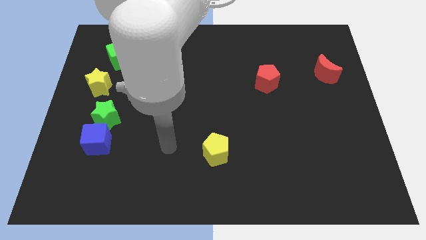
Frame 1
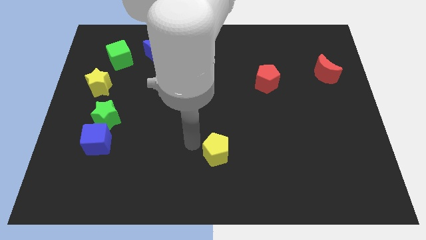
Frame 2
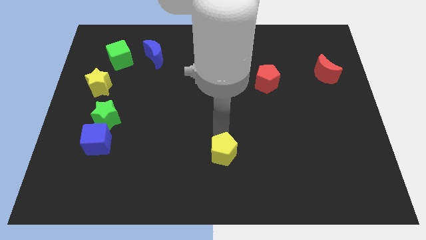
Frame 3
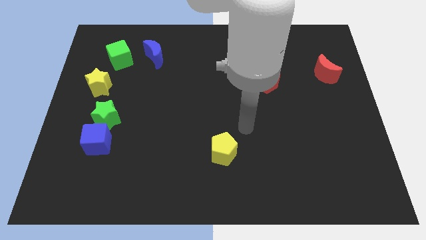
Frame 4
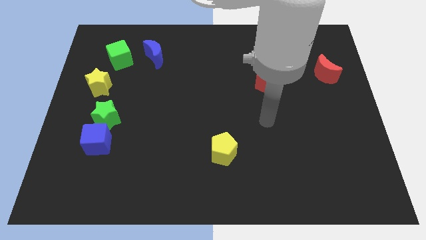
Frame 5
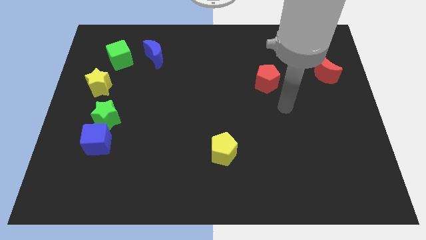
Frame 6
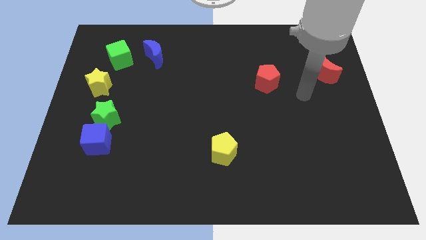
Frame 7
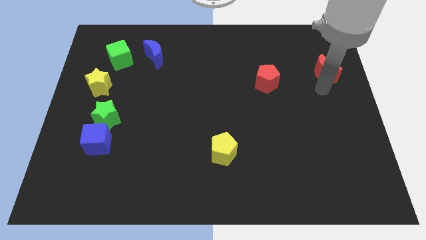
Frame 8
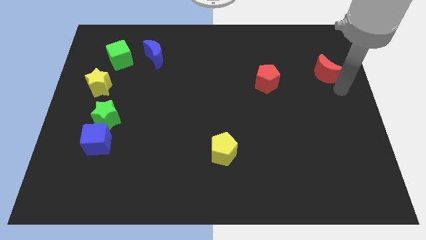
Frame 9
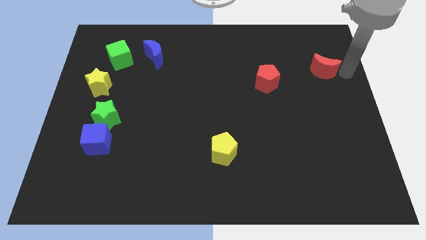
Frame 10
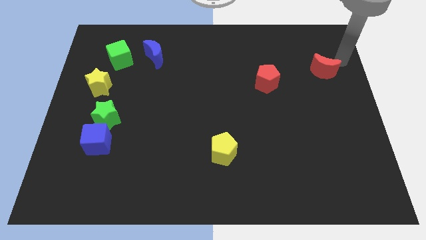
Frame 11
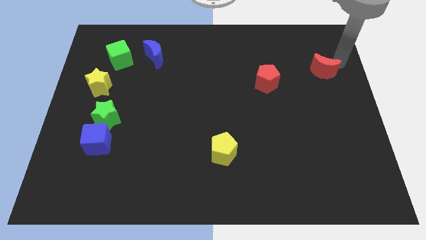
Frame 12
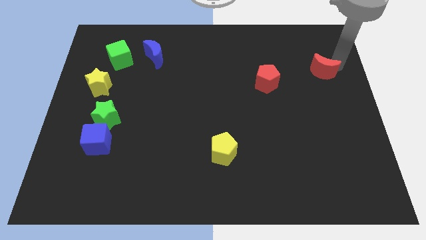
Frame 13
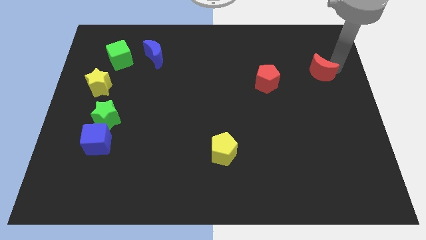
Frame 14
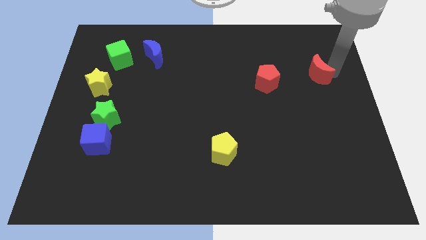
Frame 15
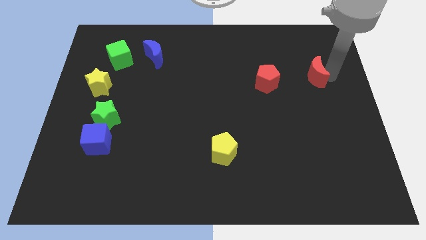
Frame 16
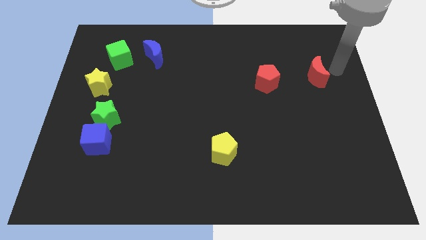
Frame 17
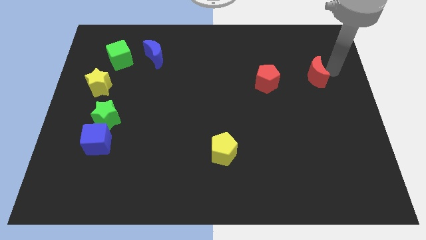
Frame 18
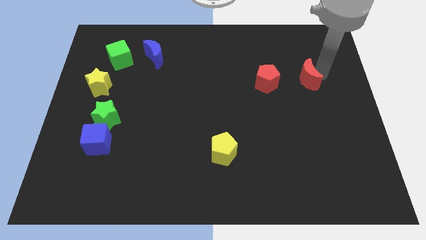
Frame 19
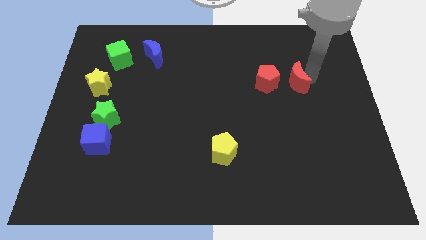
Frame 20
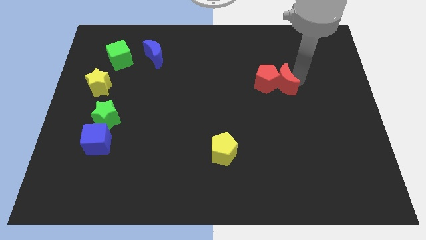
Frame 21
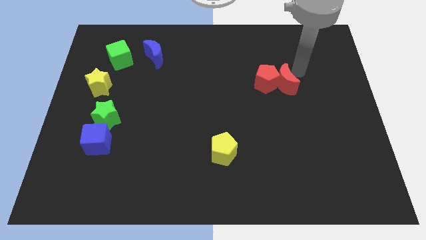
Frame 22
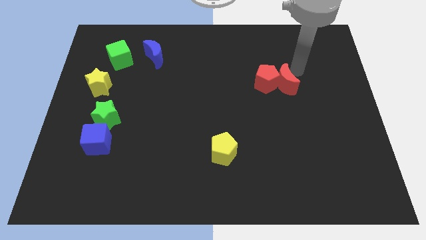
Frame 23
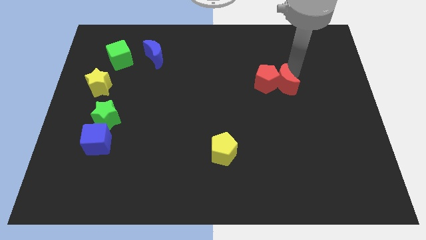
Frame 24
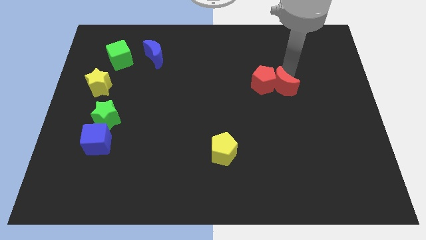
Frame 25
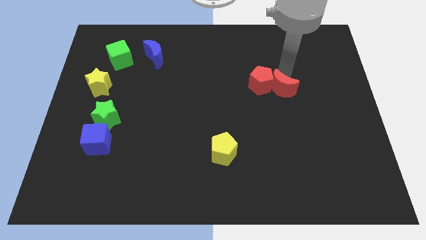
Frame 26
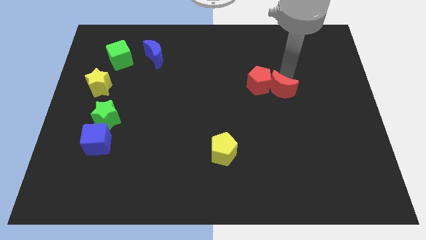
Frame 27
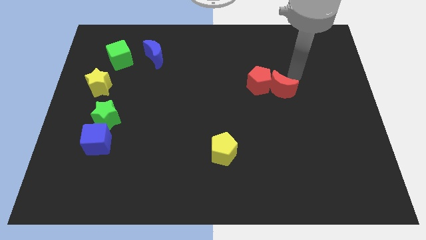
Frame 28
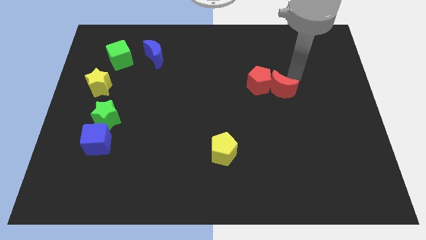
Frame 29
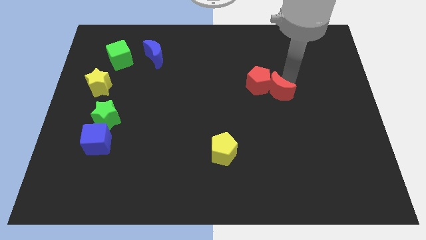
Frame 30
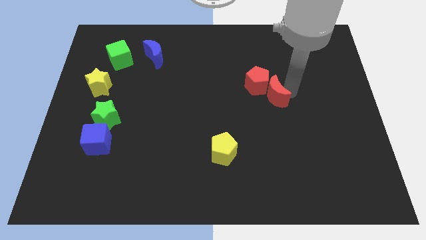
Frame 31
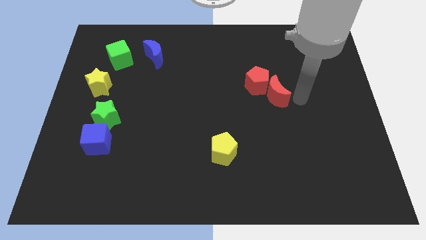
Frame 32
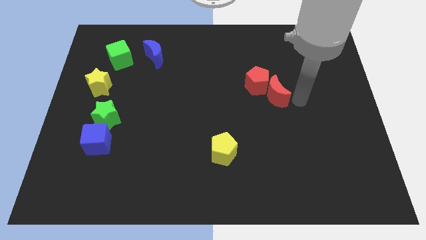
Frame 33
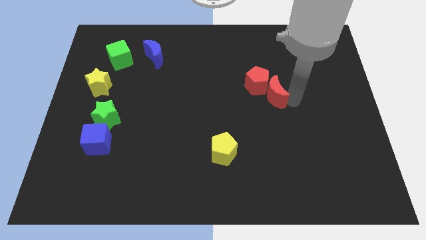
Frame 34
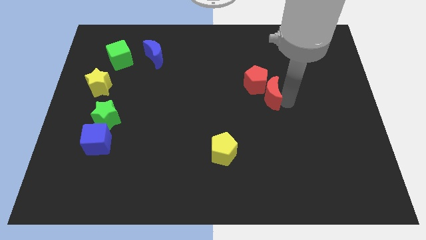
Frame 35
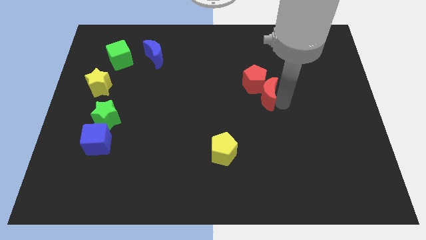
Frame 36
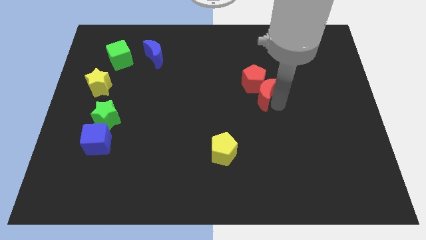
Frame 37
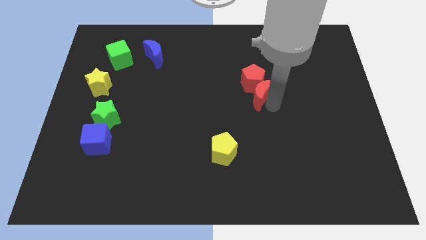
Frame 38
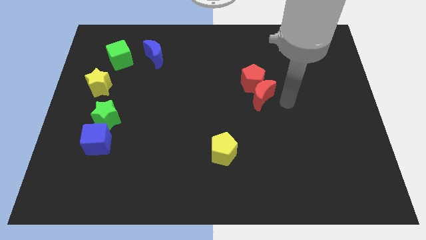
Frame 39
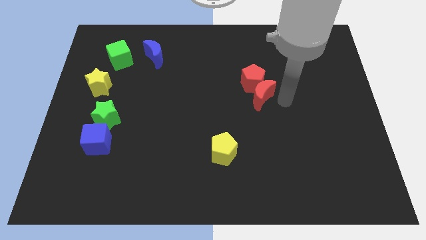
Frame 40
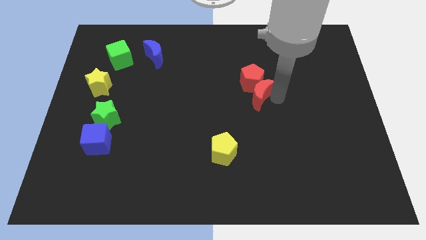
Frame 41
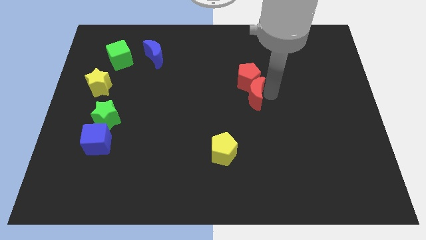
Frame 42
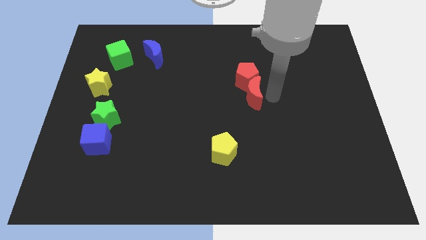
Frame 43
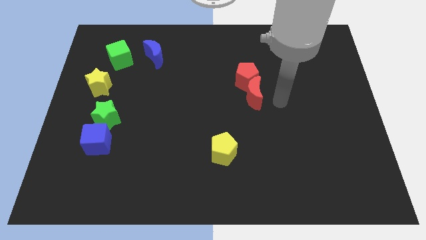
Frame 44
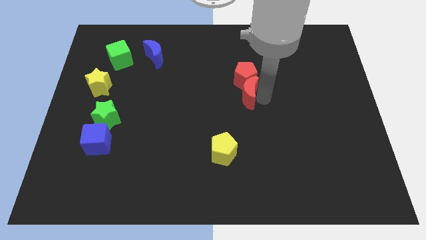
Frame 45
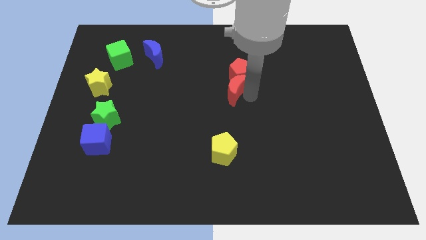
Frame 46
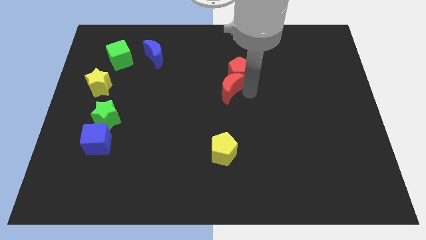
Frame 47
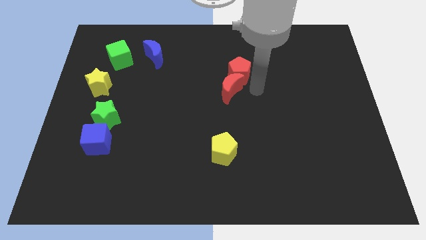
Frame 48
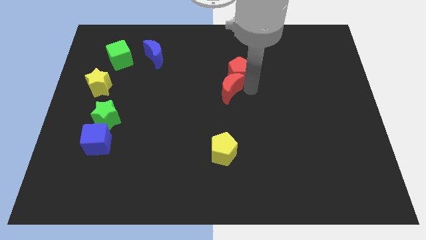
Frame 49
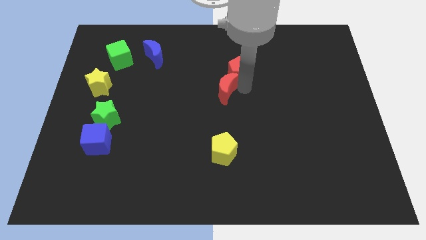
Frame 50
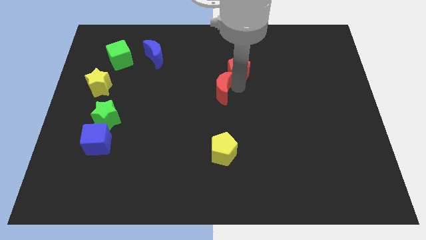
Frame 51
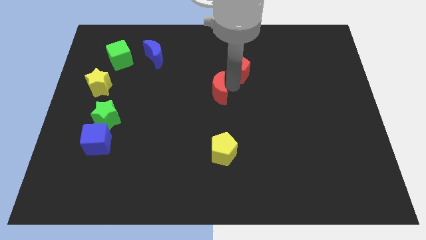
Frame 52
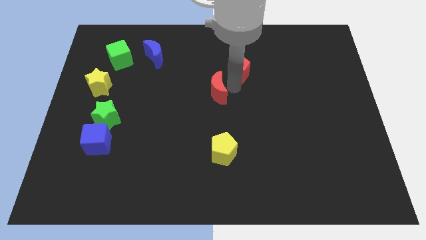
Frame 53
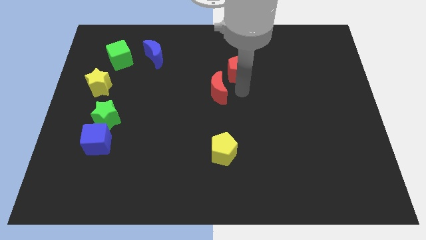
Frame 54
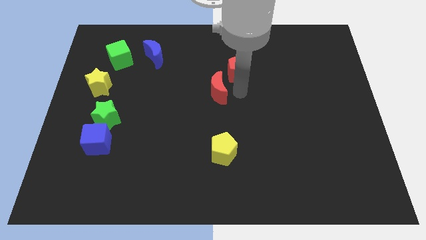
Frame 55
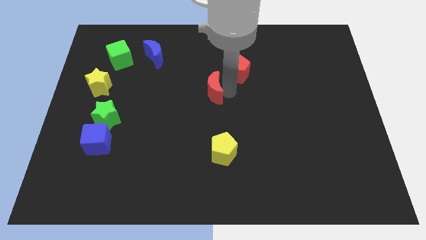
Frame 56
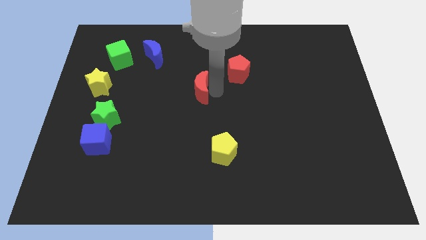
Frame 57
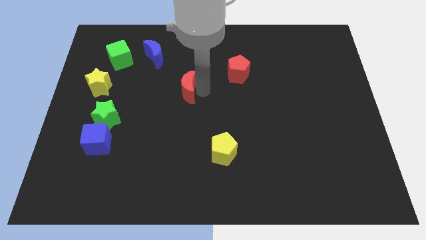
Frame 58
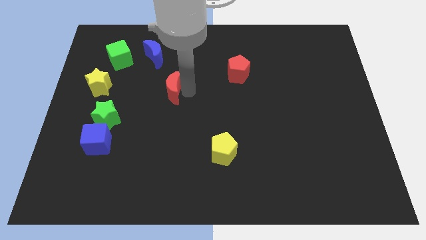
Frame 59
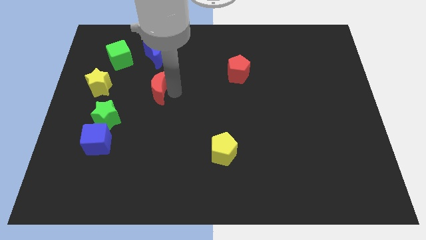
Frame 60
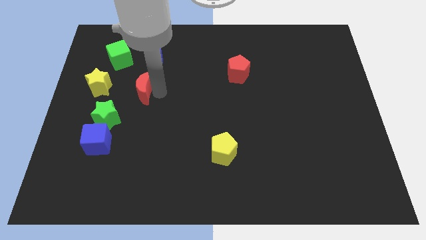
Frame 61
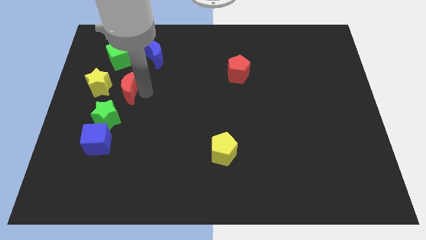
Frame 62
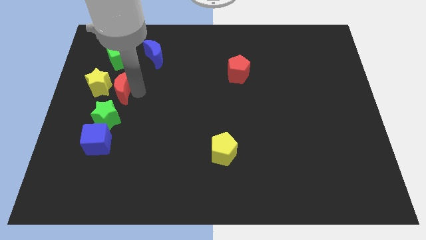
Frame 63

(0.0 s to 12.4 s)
slide the red moon towards the yellow star

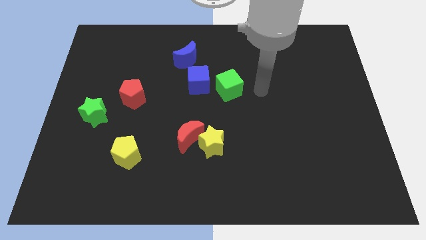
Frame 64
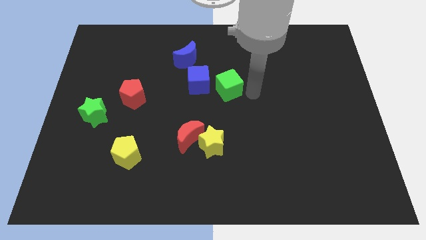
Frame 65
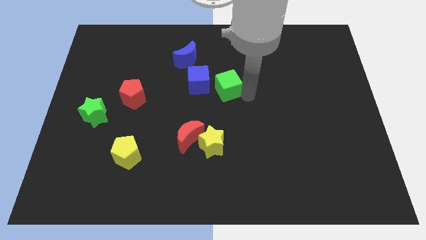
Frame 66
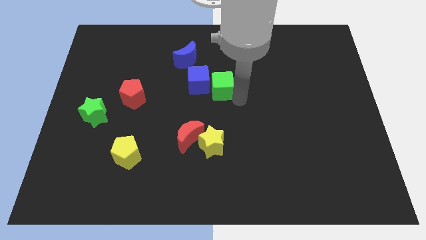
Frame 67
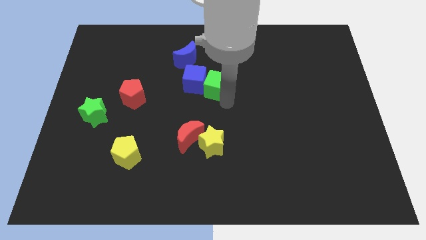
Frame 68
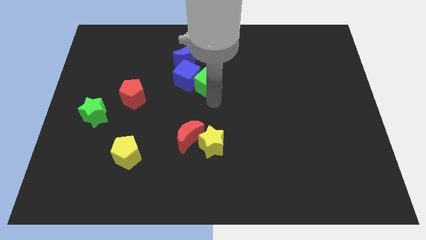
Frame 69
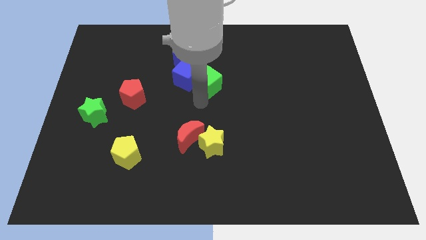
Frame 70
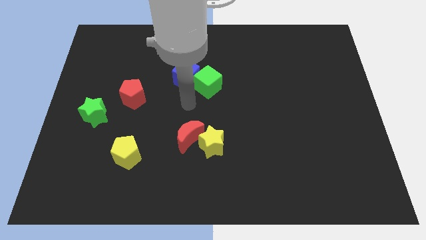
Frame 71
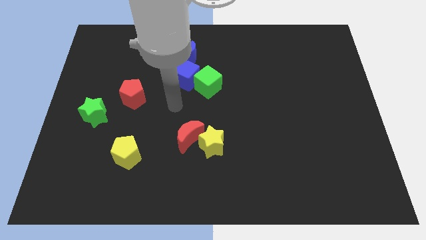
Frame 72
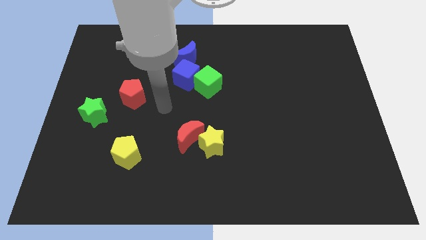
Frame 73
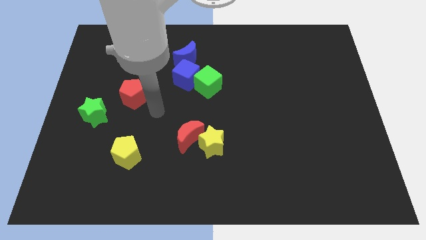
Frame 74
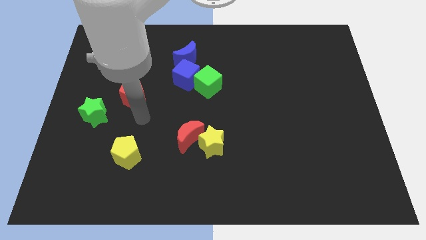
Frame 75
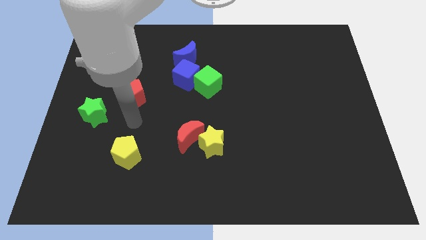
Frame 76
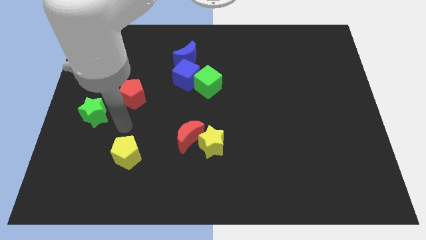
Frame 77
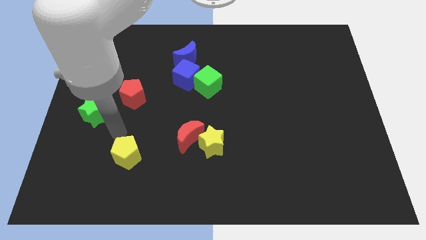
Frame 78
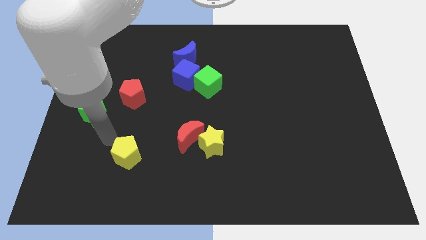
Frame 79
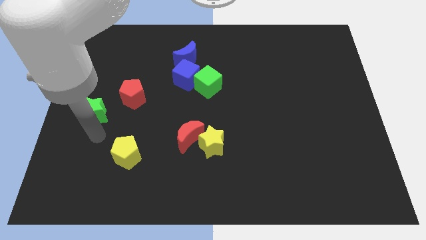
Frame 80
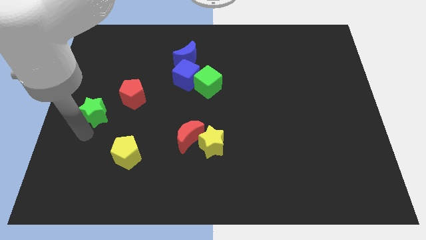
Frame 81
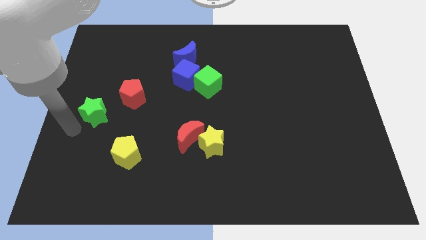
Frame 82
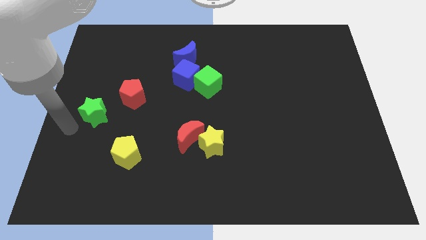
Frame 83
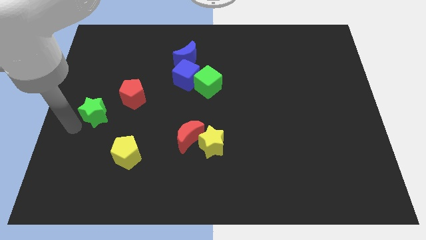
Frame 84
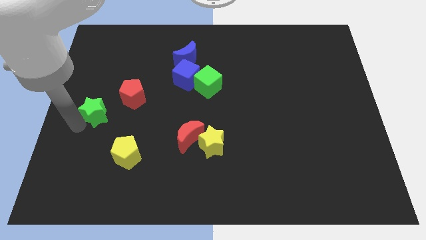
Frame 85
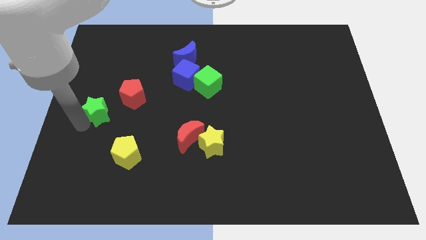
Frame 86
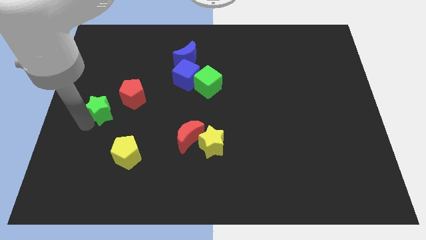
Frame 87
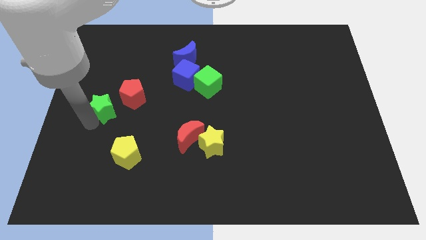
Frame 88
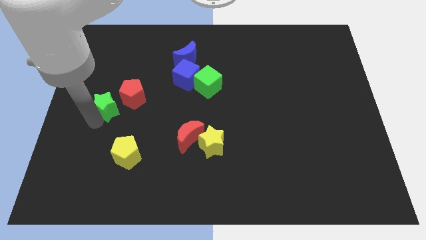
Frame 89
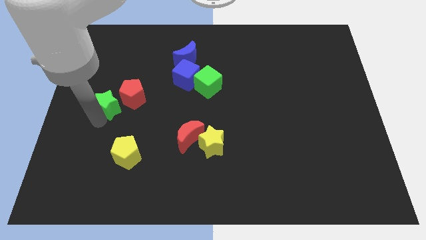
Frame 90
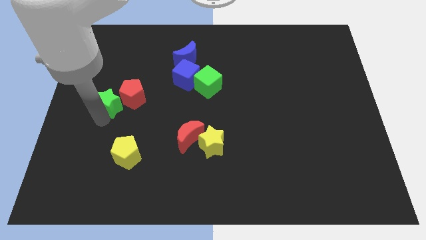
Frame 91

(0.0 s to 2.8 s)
move the green star next to the red pentagon
